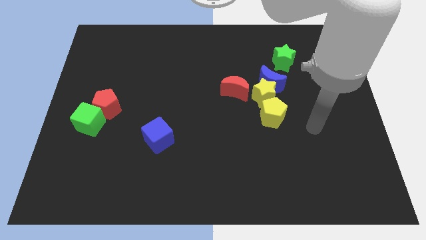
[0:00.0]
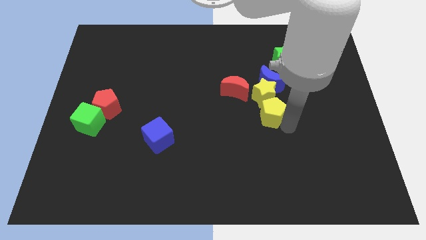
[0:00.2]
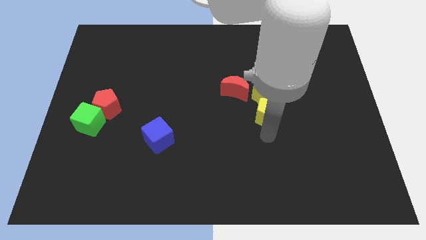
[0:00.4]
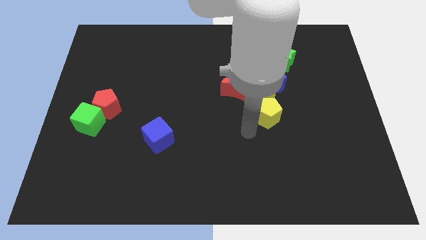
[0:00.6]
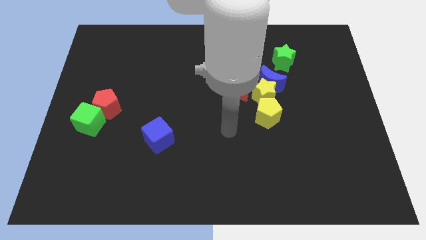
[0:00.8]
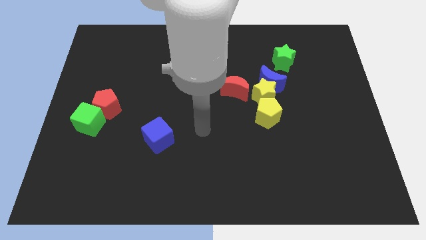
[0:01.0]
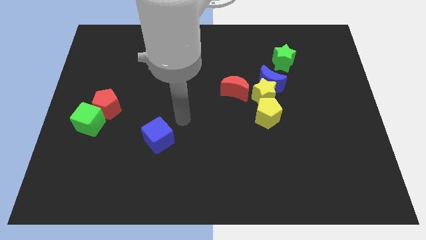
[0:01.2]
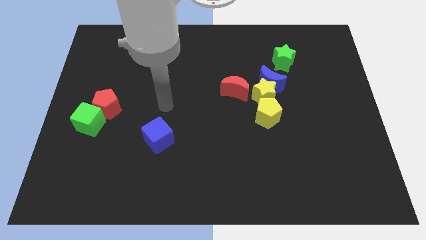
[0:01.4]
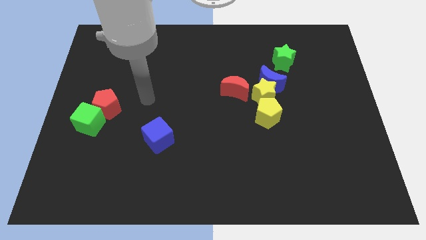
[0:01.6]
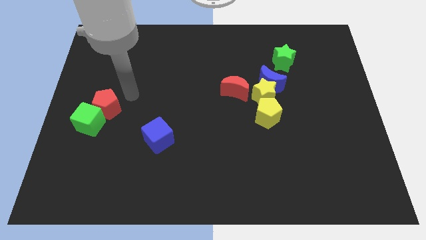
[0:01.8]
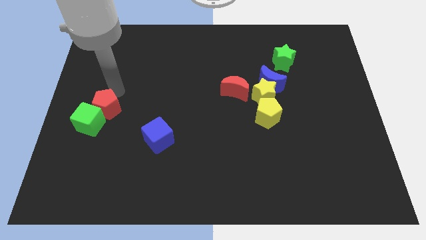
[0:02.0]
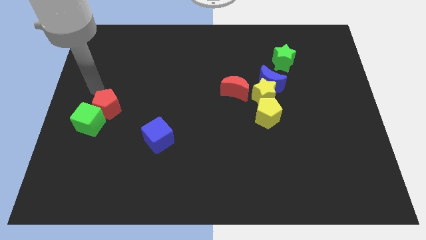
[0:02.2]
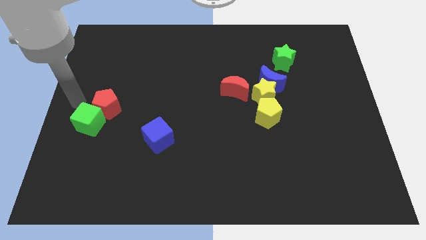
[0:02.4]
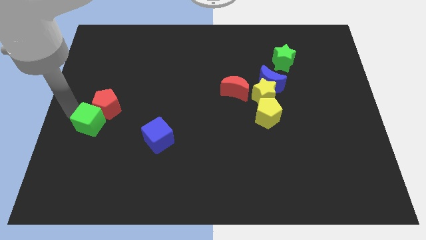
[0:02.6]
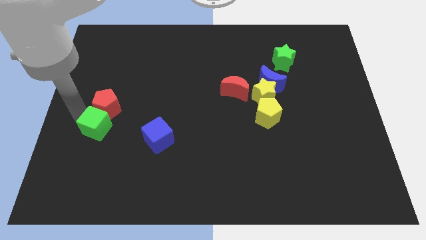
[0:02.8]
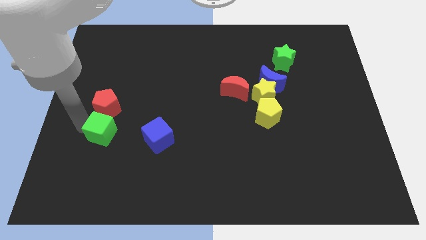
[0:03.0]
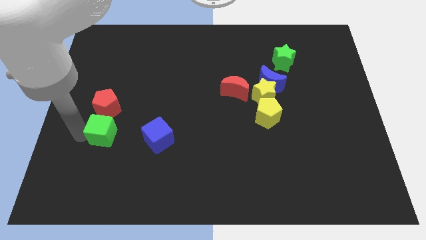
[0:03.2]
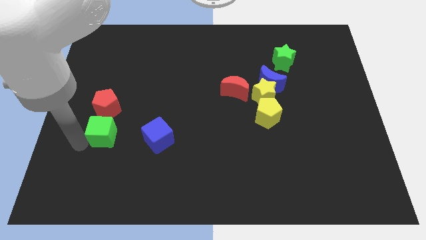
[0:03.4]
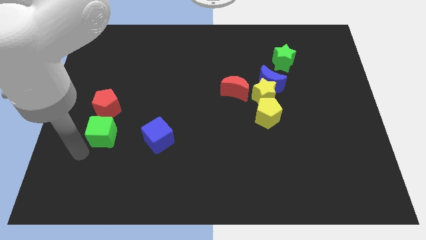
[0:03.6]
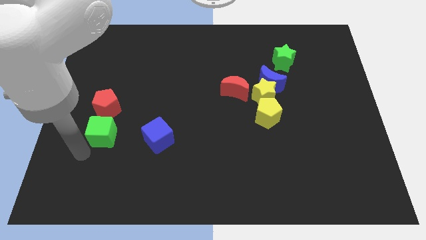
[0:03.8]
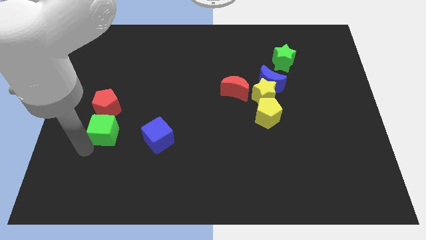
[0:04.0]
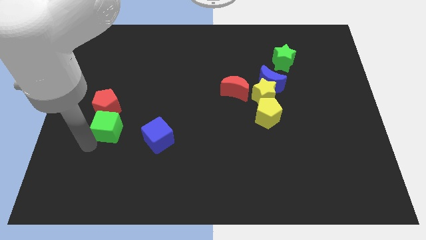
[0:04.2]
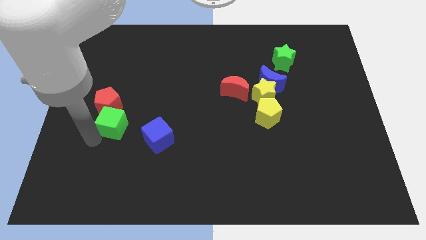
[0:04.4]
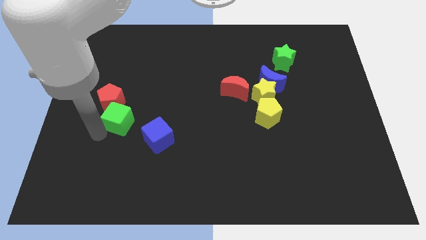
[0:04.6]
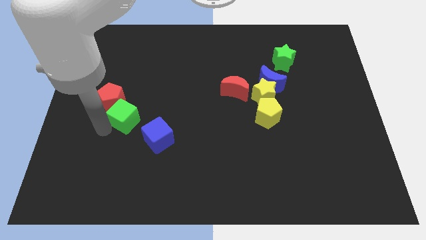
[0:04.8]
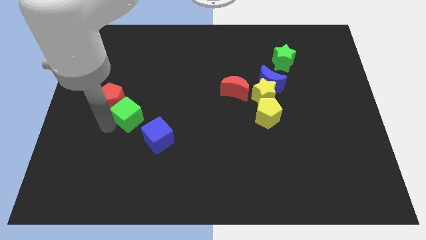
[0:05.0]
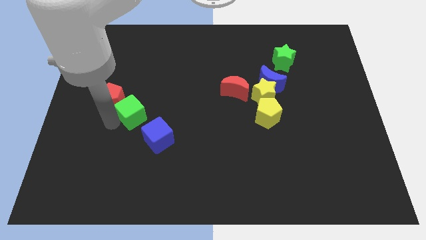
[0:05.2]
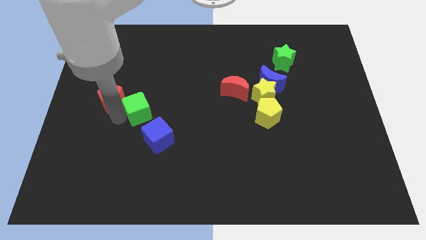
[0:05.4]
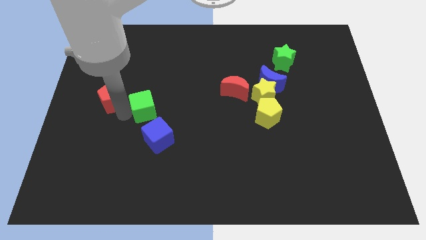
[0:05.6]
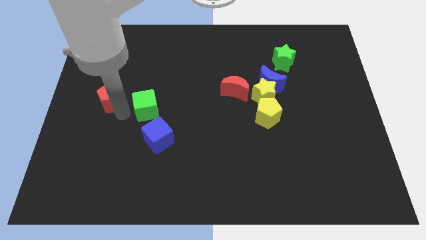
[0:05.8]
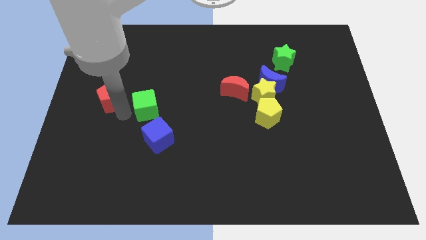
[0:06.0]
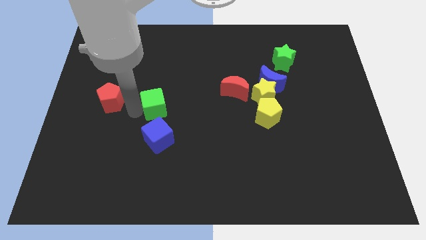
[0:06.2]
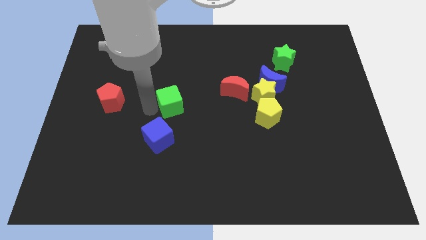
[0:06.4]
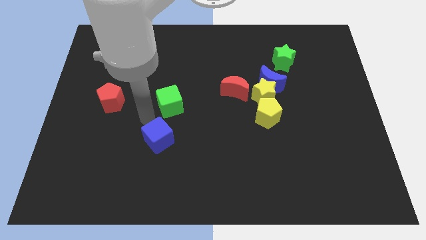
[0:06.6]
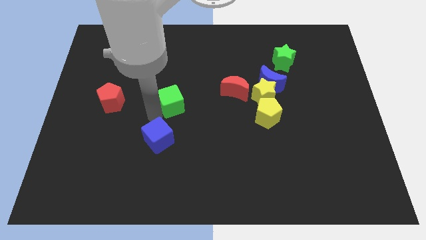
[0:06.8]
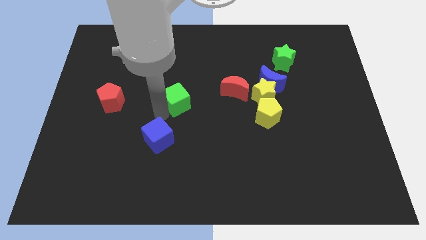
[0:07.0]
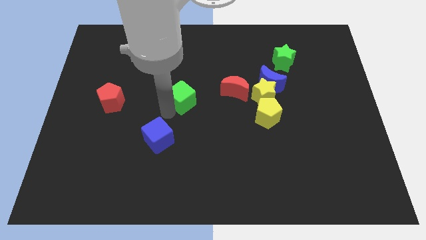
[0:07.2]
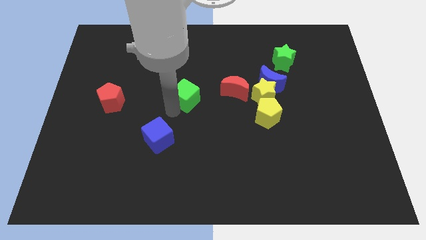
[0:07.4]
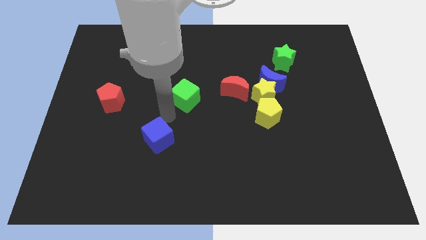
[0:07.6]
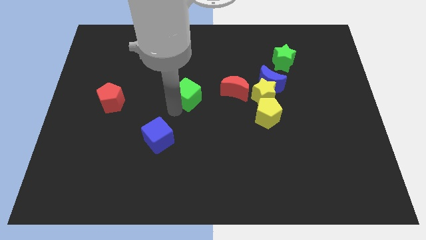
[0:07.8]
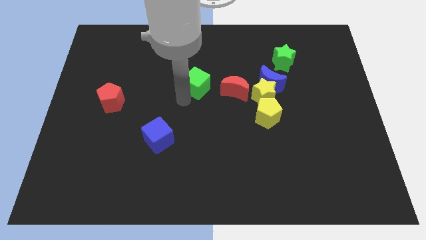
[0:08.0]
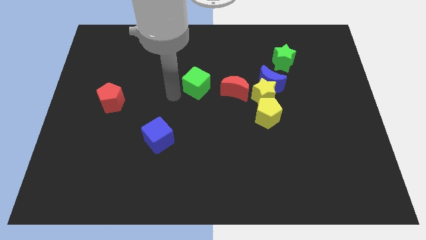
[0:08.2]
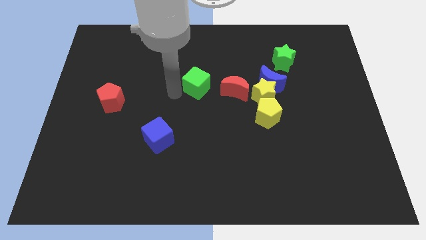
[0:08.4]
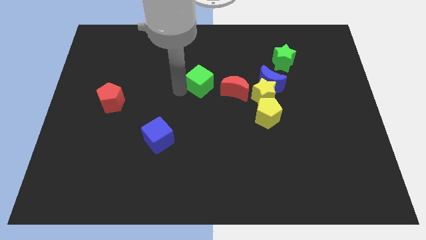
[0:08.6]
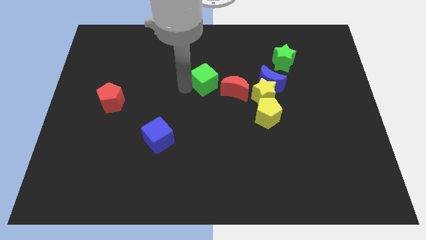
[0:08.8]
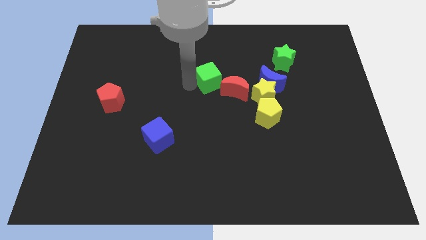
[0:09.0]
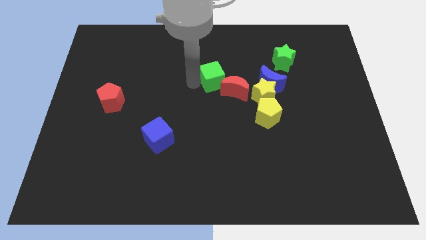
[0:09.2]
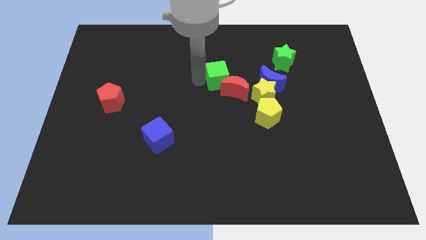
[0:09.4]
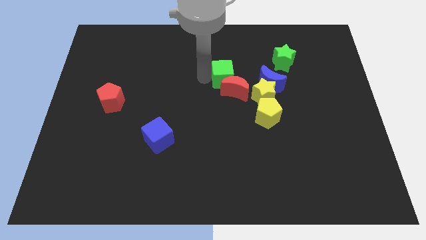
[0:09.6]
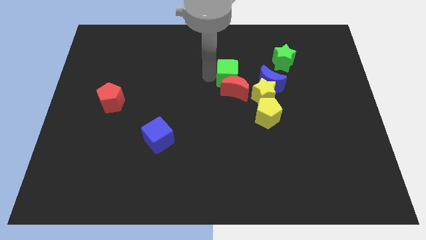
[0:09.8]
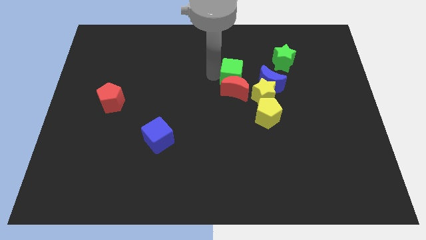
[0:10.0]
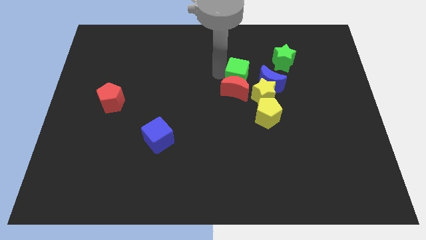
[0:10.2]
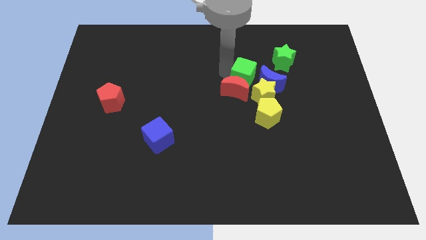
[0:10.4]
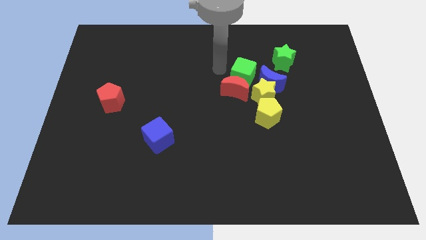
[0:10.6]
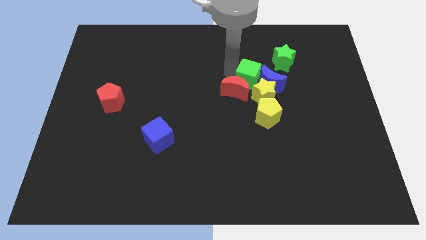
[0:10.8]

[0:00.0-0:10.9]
slide the green cube close to the blue moon
